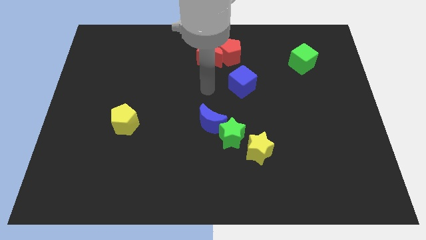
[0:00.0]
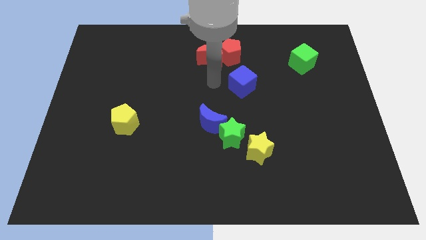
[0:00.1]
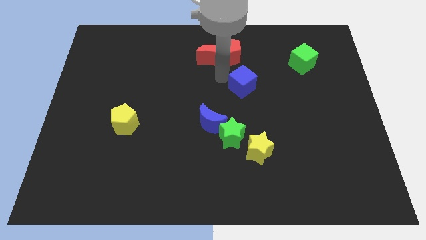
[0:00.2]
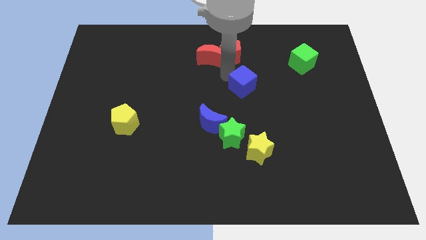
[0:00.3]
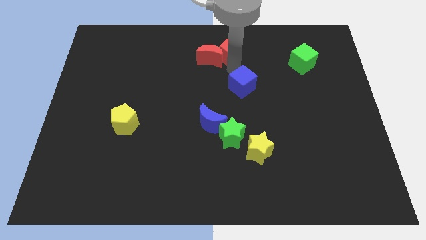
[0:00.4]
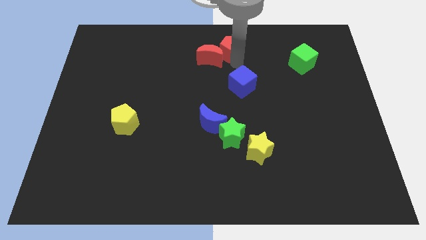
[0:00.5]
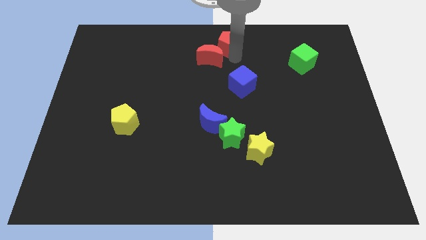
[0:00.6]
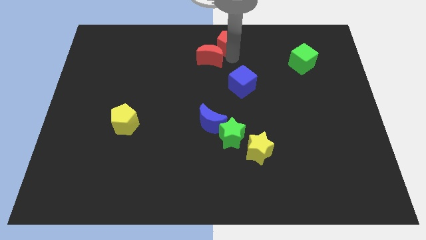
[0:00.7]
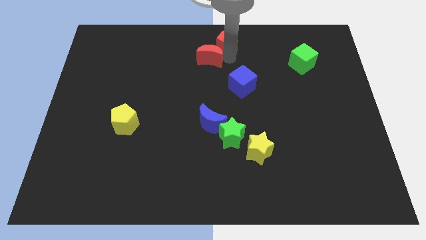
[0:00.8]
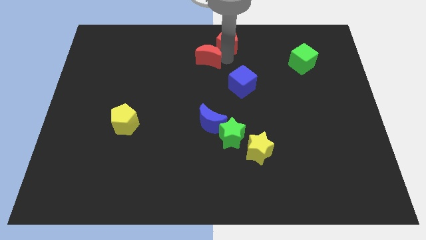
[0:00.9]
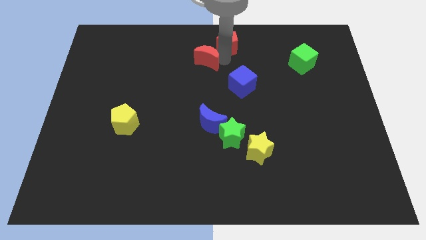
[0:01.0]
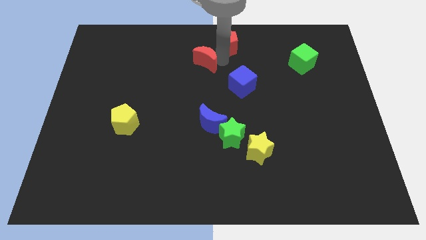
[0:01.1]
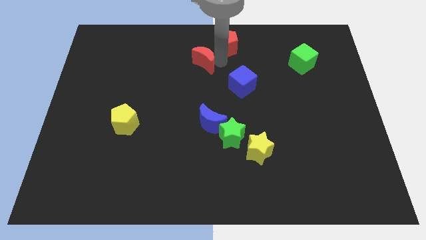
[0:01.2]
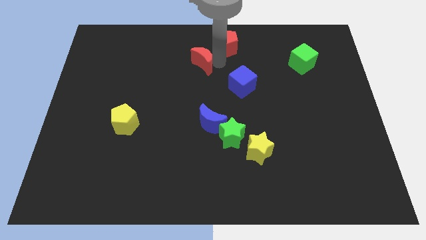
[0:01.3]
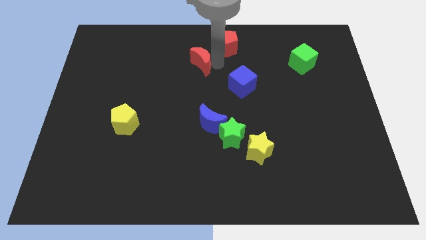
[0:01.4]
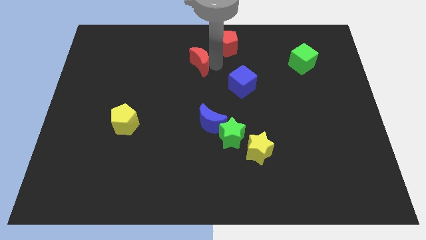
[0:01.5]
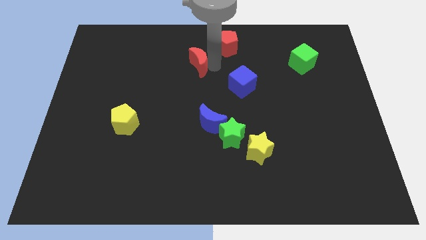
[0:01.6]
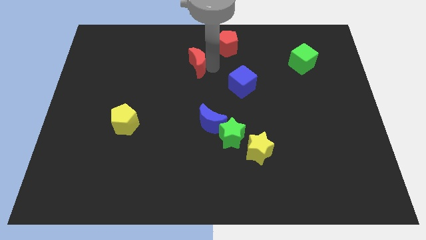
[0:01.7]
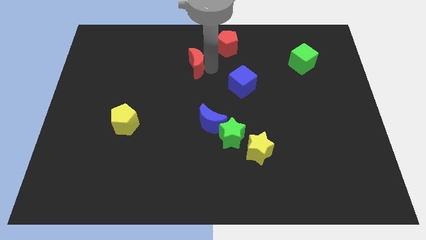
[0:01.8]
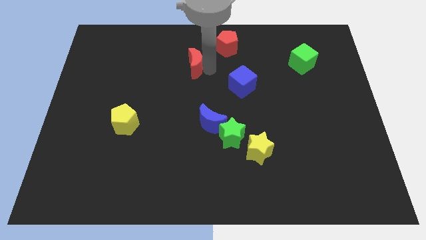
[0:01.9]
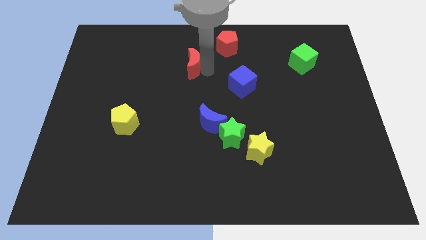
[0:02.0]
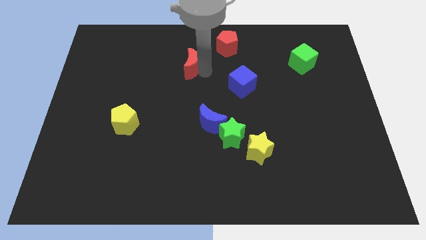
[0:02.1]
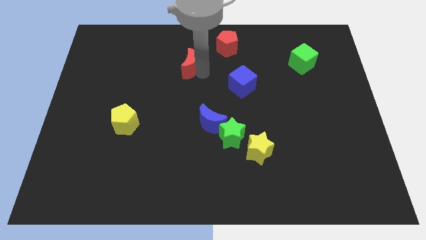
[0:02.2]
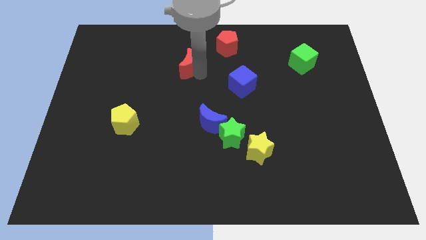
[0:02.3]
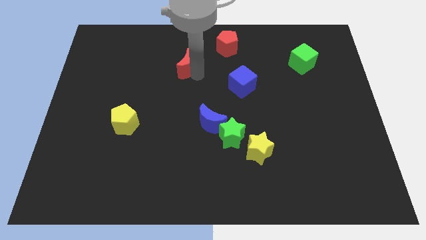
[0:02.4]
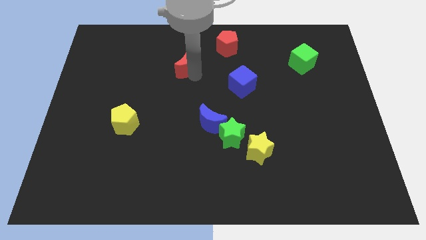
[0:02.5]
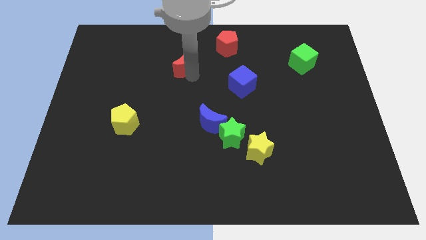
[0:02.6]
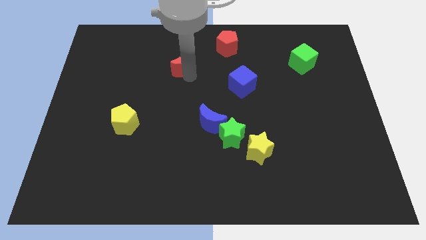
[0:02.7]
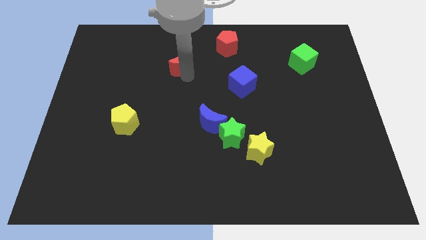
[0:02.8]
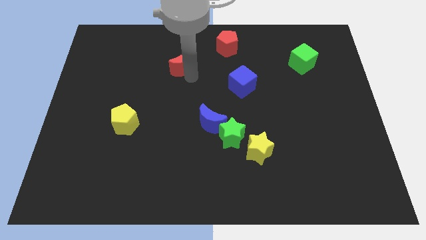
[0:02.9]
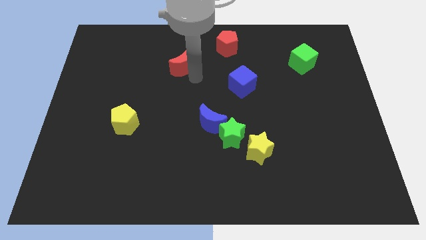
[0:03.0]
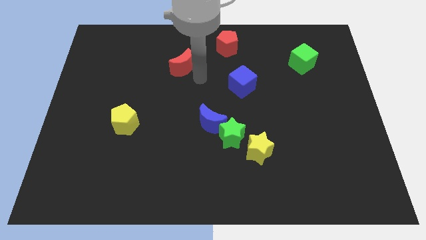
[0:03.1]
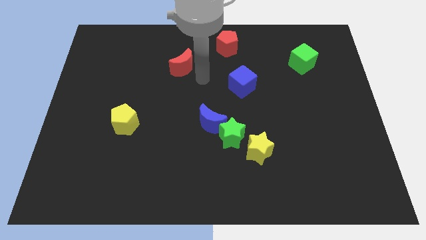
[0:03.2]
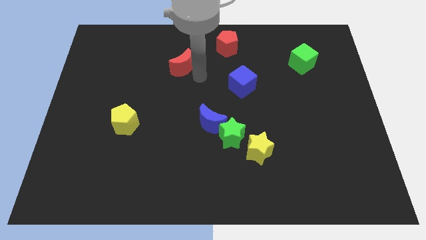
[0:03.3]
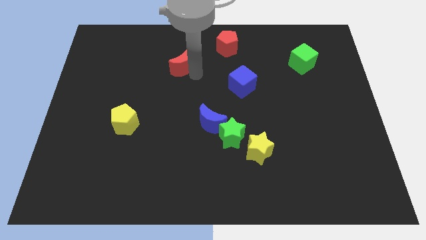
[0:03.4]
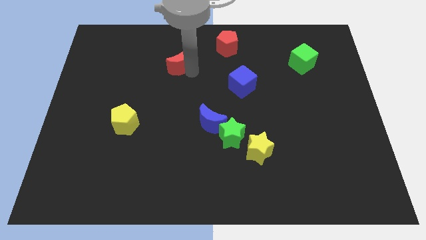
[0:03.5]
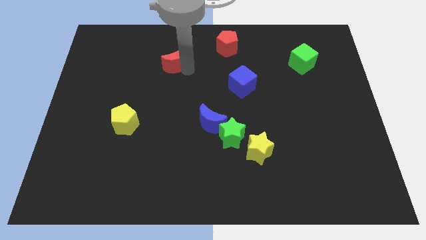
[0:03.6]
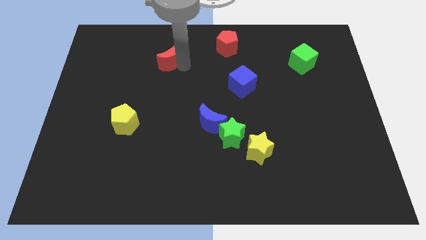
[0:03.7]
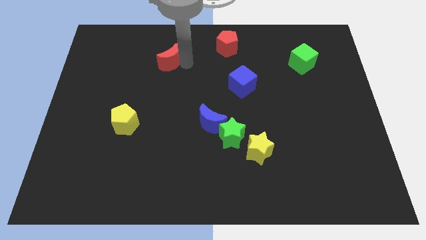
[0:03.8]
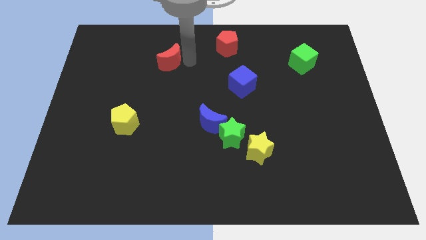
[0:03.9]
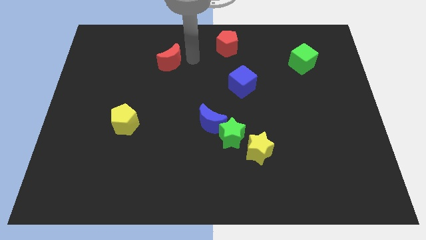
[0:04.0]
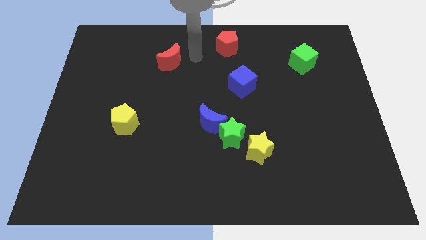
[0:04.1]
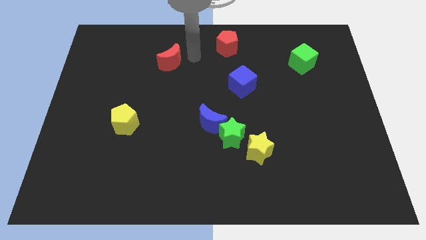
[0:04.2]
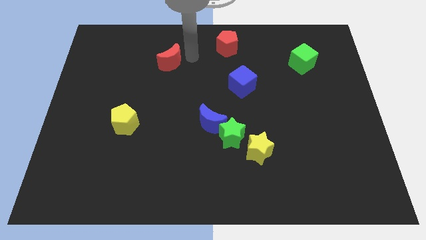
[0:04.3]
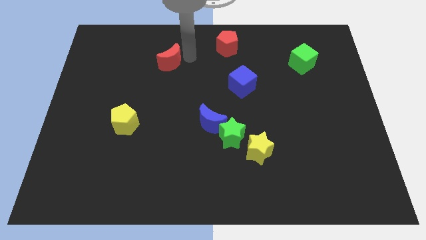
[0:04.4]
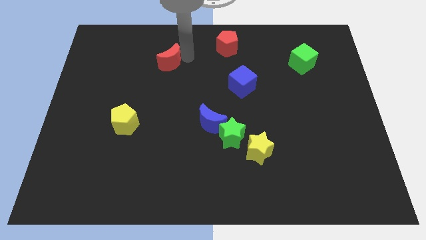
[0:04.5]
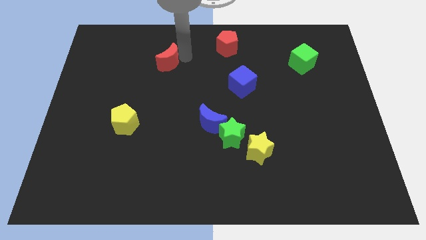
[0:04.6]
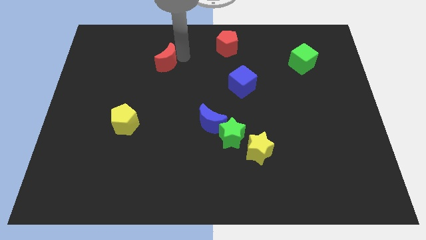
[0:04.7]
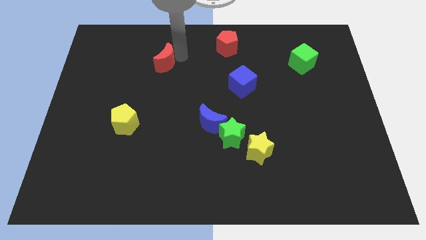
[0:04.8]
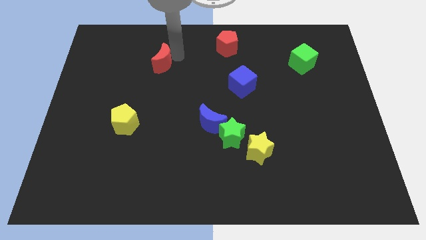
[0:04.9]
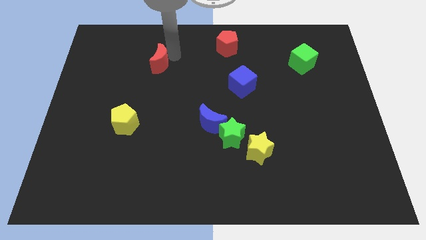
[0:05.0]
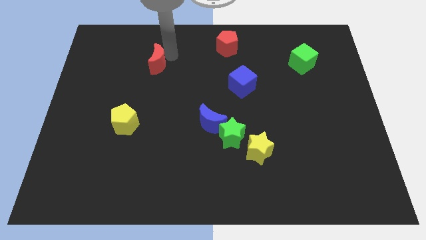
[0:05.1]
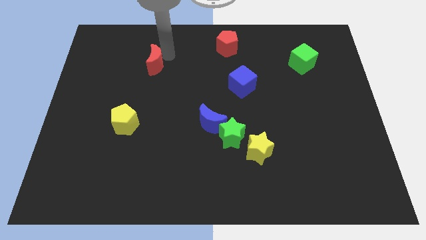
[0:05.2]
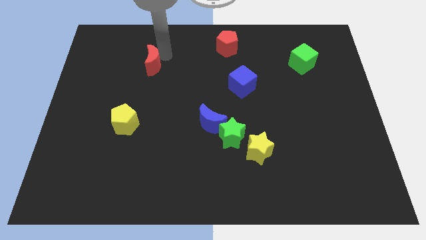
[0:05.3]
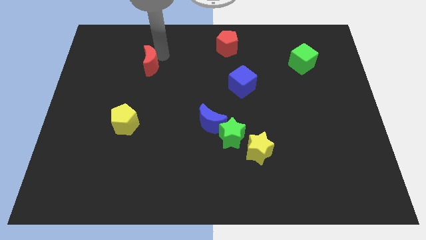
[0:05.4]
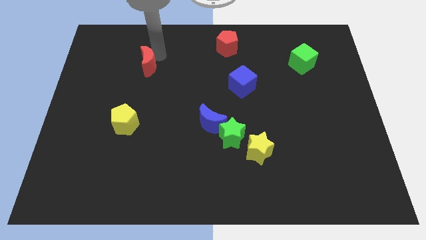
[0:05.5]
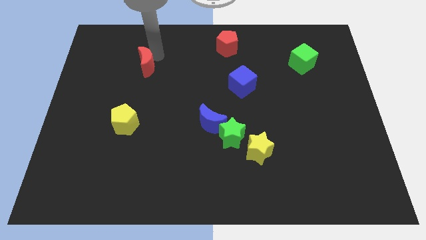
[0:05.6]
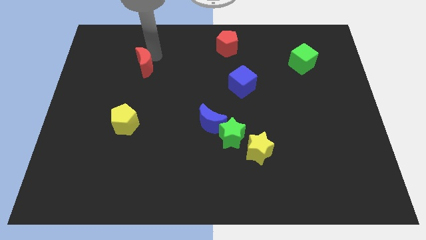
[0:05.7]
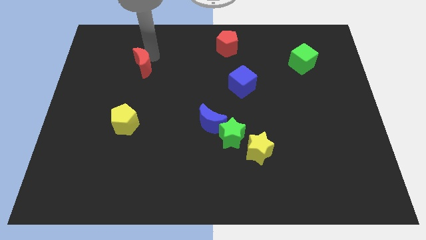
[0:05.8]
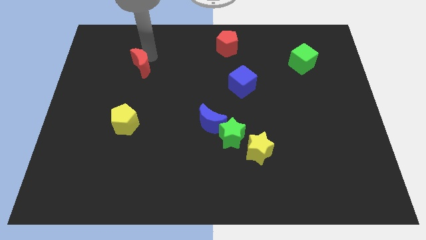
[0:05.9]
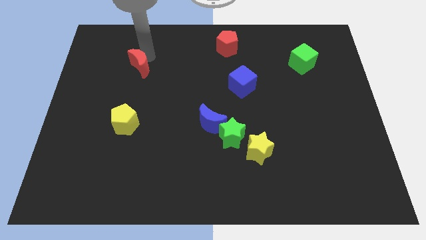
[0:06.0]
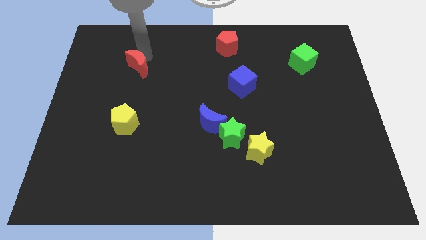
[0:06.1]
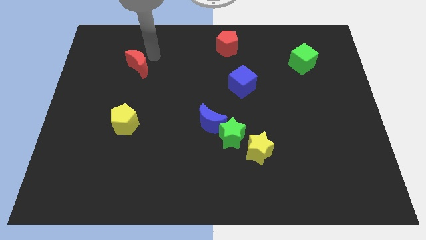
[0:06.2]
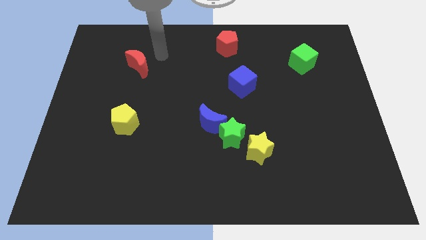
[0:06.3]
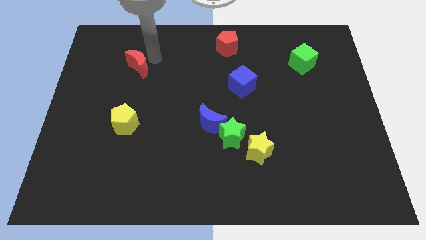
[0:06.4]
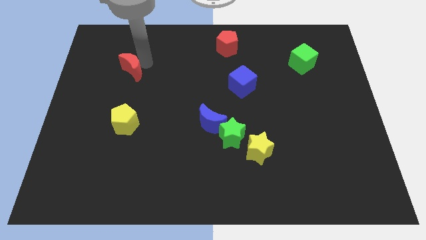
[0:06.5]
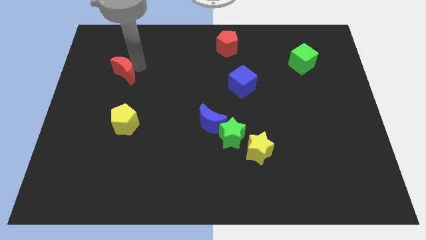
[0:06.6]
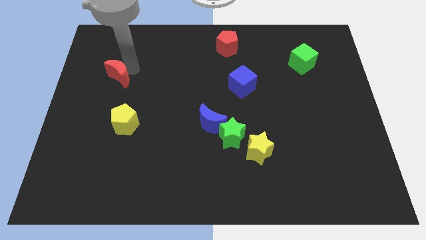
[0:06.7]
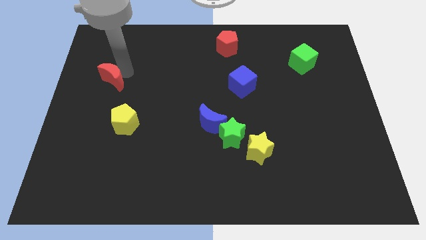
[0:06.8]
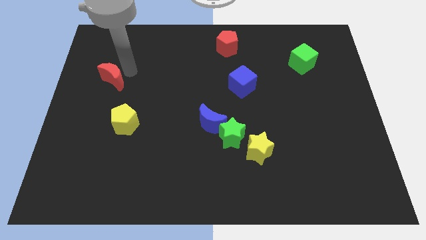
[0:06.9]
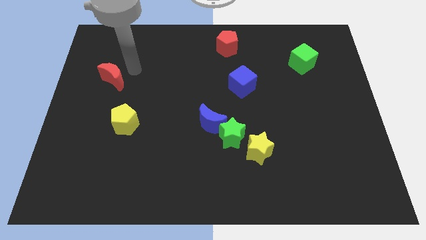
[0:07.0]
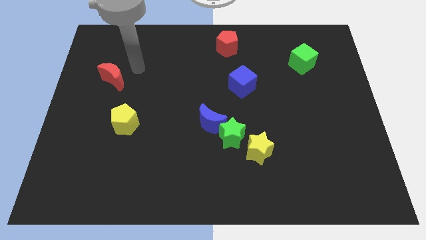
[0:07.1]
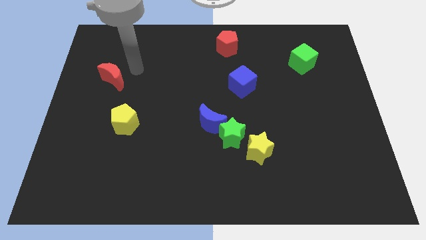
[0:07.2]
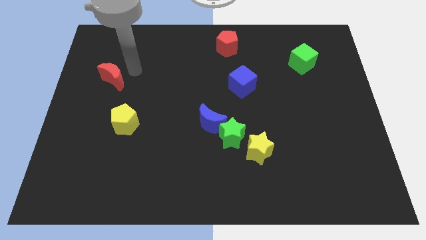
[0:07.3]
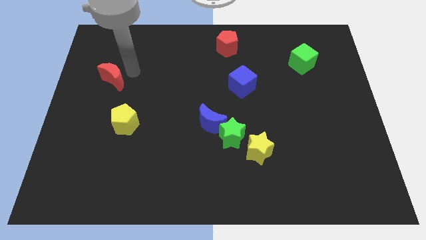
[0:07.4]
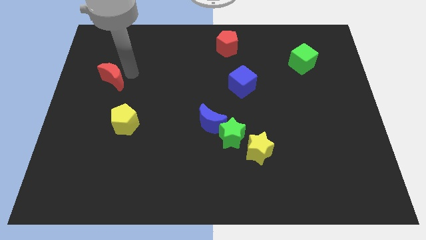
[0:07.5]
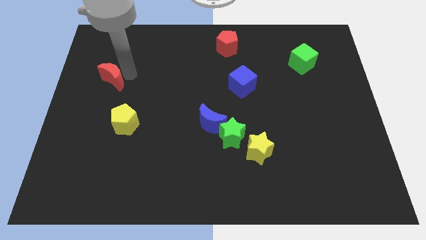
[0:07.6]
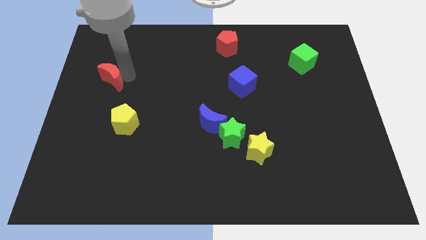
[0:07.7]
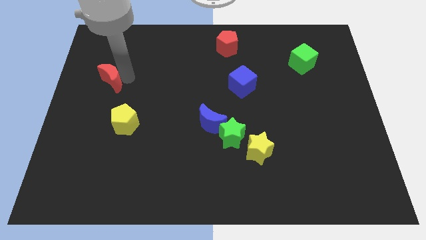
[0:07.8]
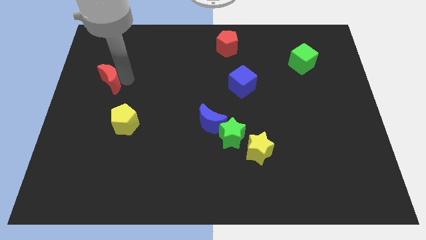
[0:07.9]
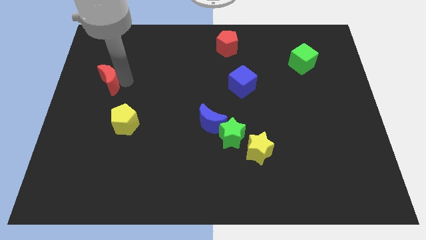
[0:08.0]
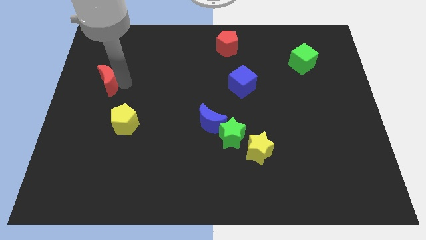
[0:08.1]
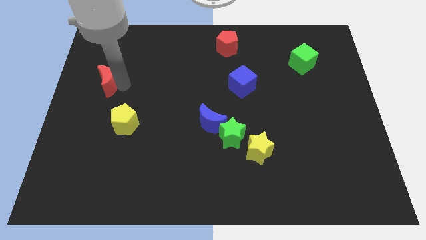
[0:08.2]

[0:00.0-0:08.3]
move the red moon to the center left
